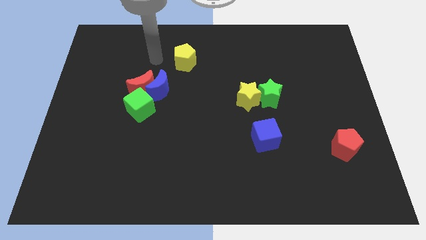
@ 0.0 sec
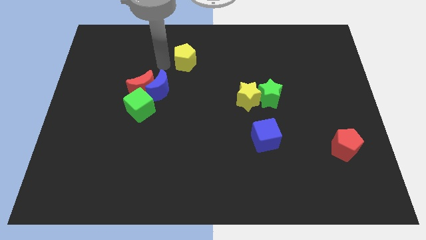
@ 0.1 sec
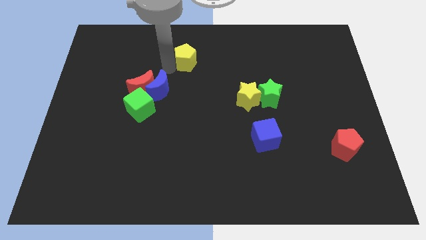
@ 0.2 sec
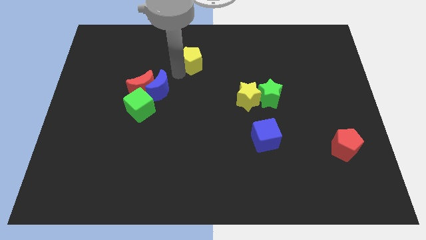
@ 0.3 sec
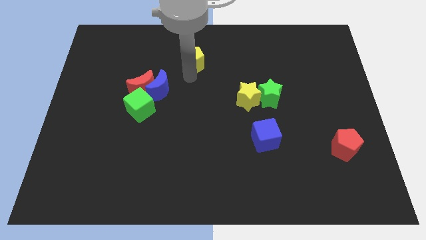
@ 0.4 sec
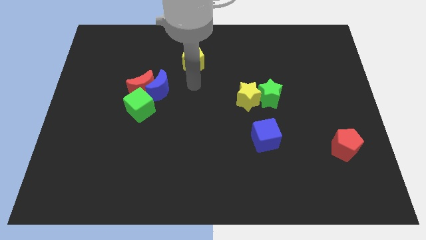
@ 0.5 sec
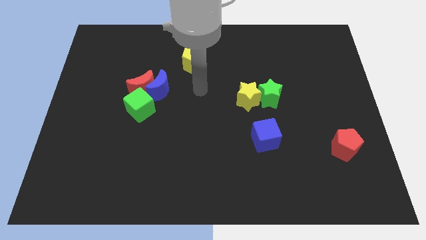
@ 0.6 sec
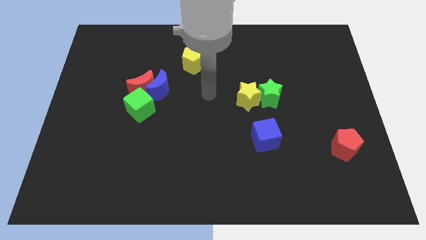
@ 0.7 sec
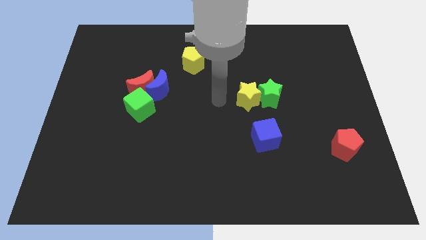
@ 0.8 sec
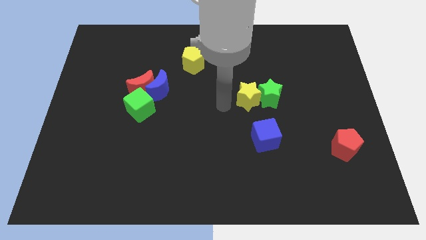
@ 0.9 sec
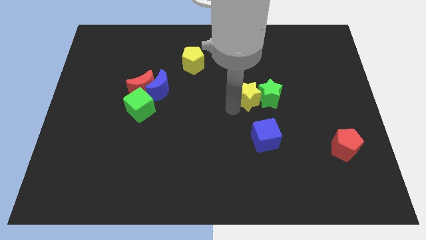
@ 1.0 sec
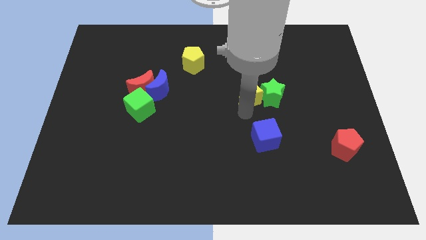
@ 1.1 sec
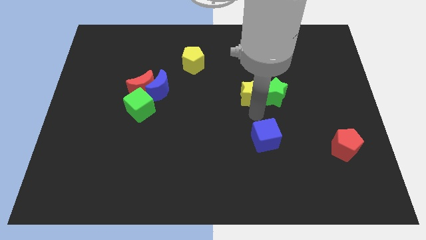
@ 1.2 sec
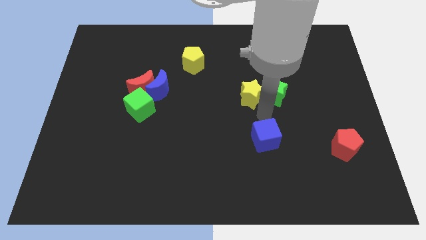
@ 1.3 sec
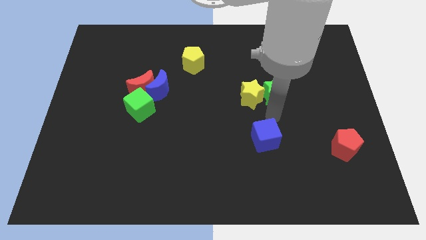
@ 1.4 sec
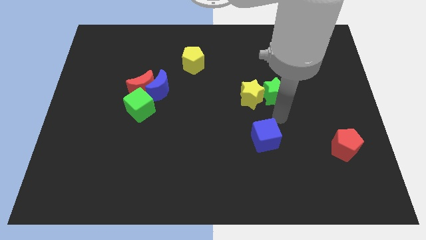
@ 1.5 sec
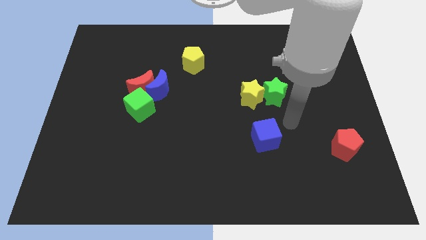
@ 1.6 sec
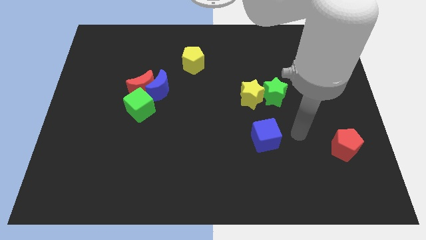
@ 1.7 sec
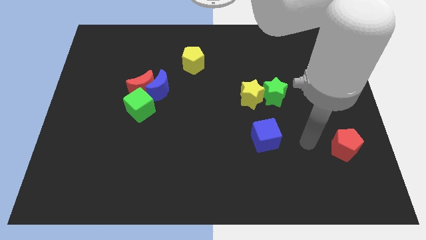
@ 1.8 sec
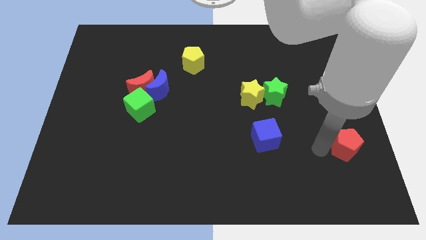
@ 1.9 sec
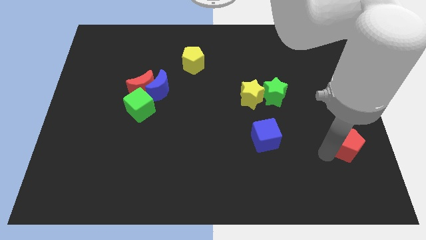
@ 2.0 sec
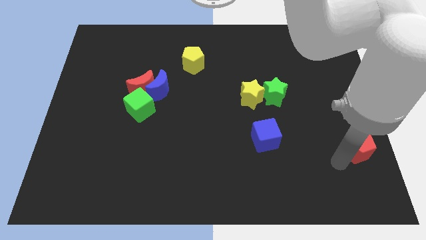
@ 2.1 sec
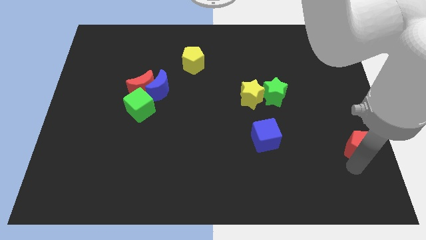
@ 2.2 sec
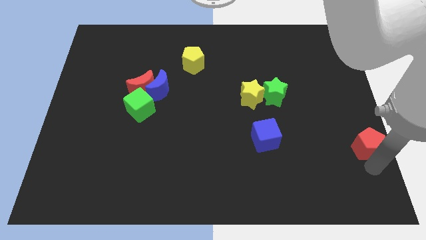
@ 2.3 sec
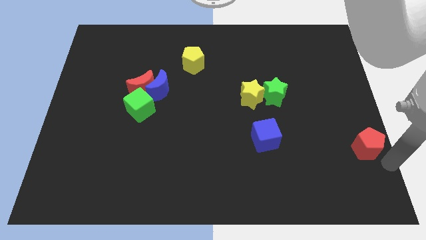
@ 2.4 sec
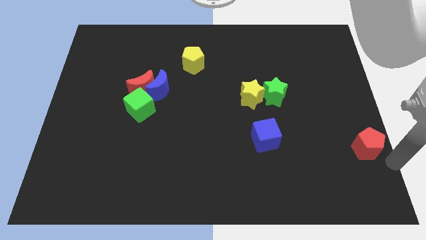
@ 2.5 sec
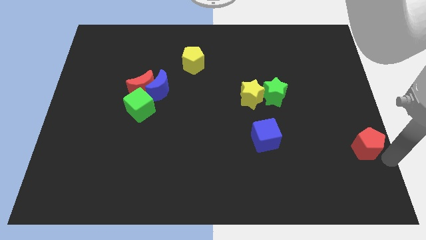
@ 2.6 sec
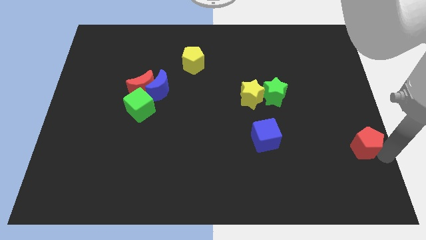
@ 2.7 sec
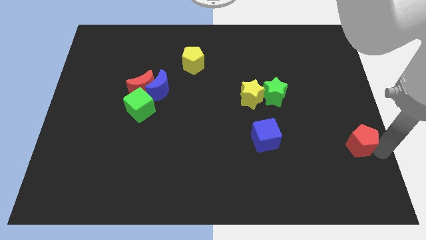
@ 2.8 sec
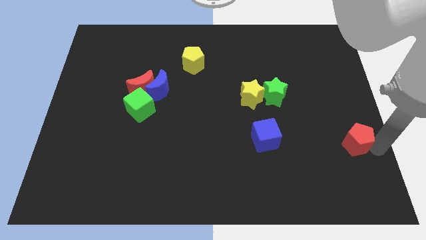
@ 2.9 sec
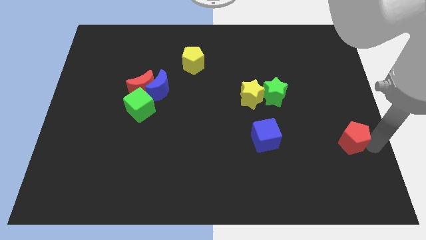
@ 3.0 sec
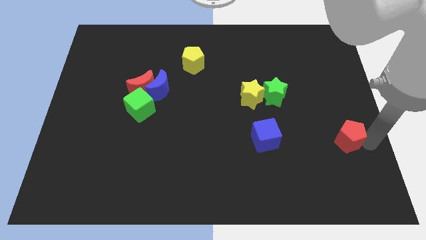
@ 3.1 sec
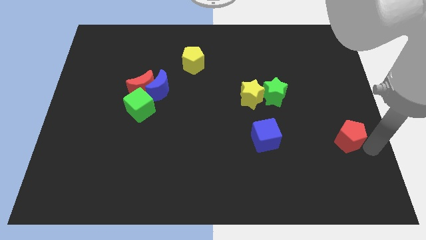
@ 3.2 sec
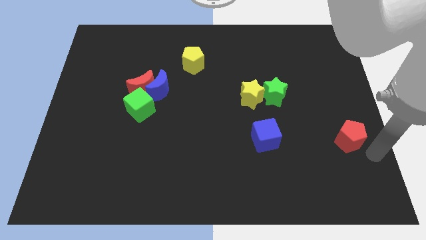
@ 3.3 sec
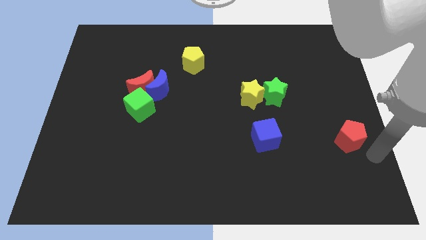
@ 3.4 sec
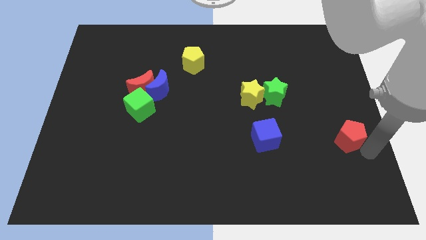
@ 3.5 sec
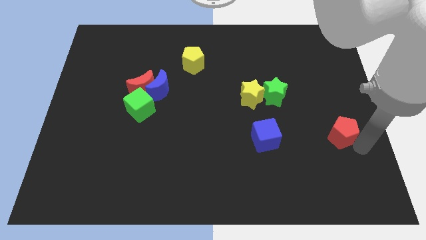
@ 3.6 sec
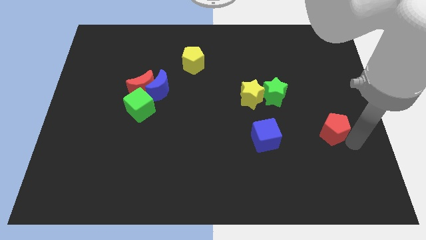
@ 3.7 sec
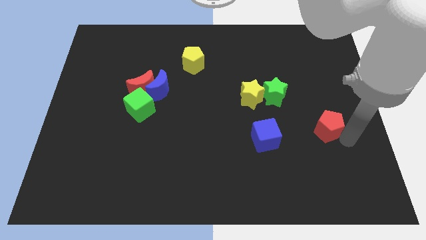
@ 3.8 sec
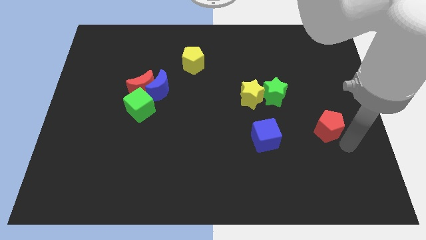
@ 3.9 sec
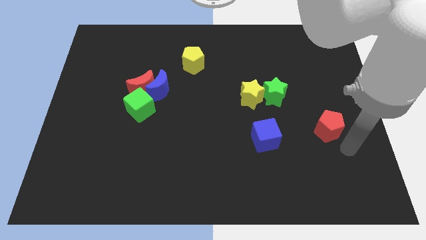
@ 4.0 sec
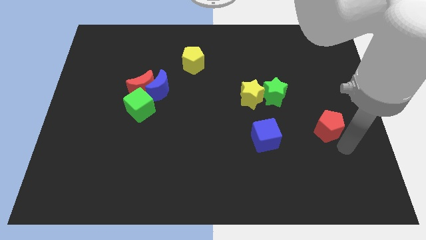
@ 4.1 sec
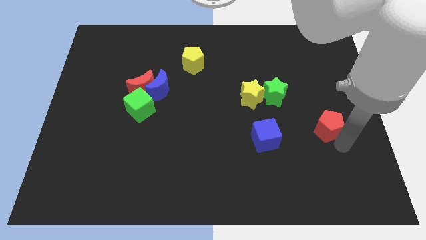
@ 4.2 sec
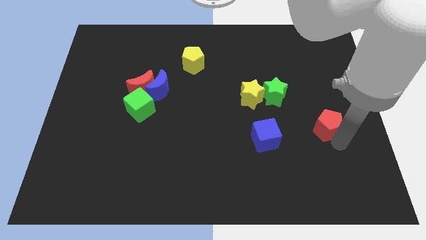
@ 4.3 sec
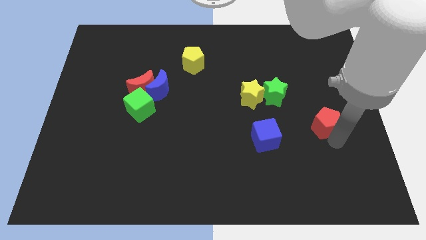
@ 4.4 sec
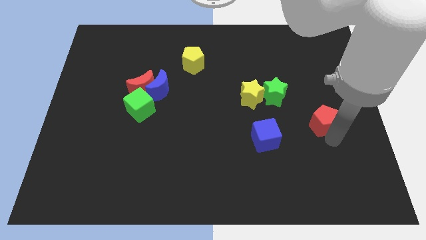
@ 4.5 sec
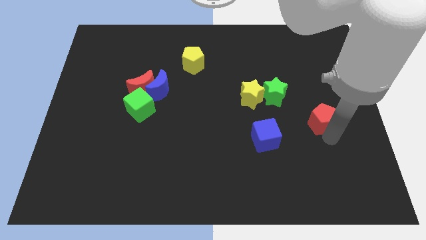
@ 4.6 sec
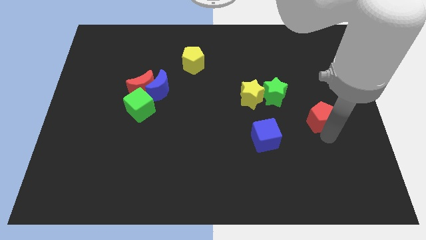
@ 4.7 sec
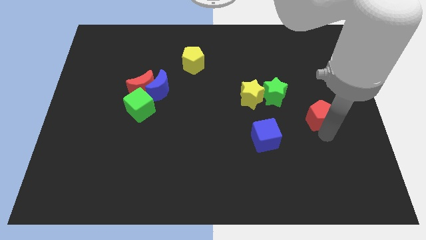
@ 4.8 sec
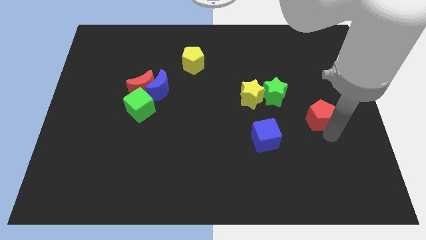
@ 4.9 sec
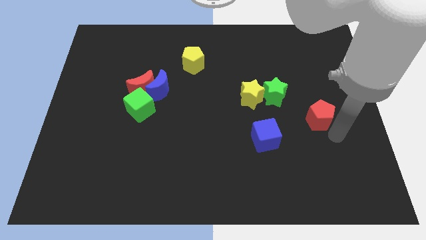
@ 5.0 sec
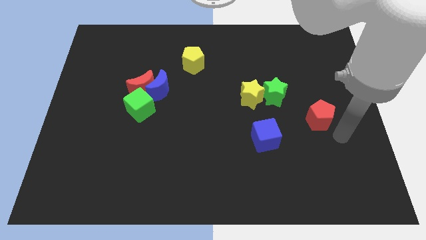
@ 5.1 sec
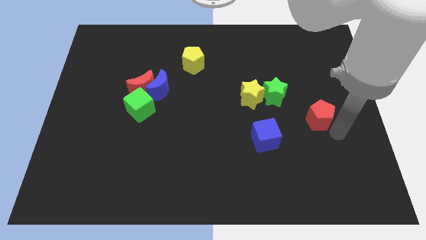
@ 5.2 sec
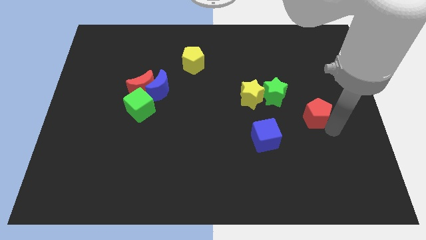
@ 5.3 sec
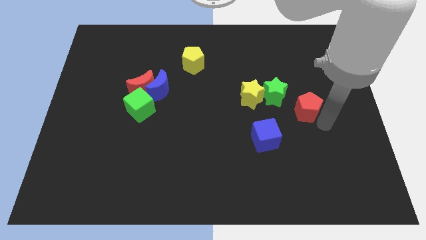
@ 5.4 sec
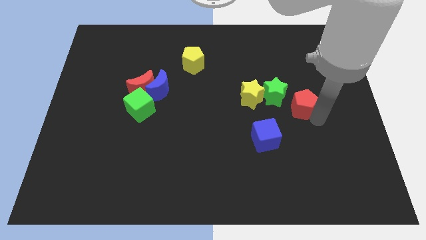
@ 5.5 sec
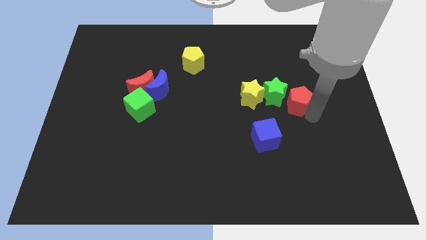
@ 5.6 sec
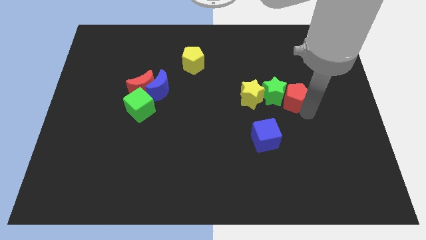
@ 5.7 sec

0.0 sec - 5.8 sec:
push the red pentagon to the top right side of the green star

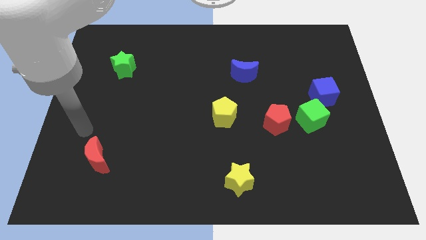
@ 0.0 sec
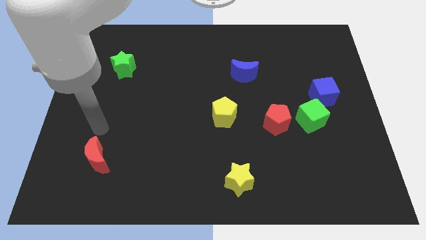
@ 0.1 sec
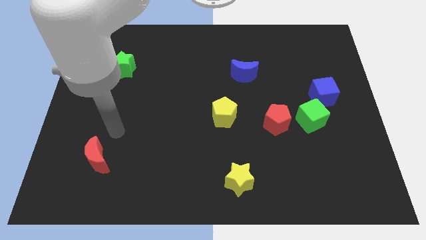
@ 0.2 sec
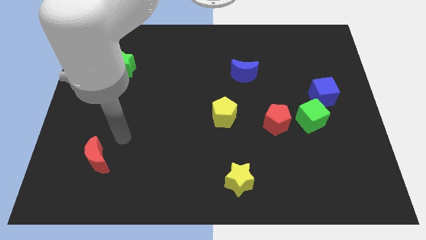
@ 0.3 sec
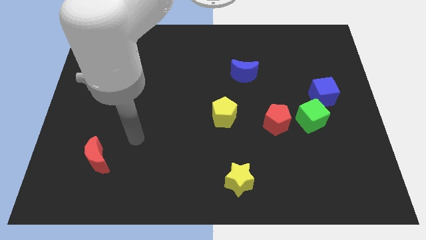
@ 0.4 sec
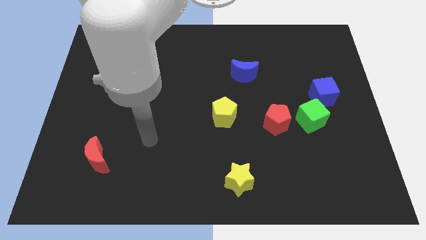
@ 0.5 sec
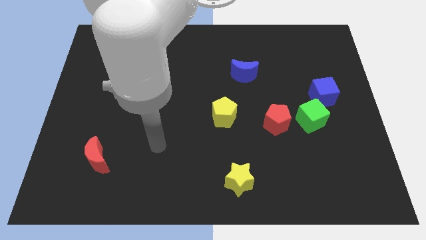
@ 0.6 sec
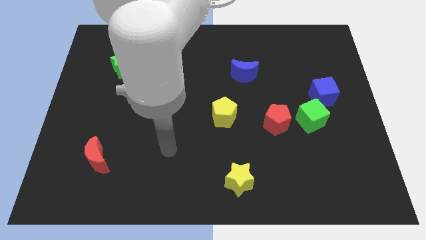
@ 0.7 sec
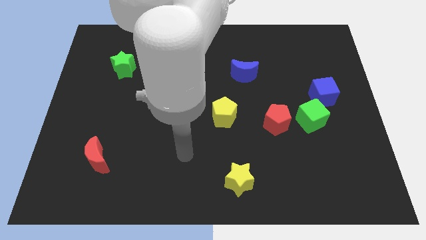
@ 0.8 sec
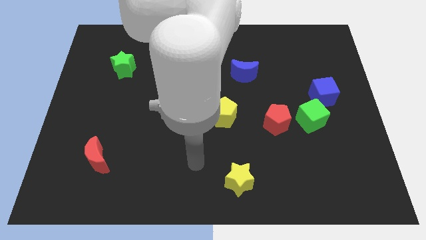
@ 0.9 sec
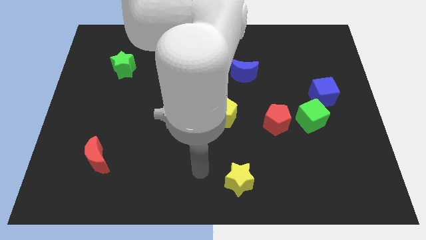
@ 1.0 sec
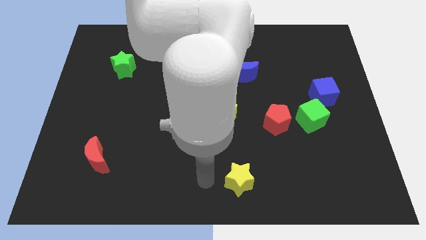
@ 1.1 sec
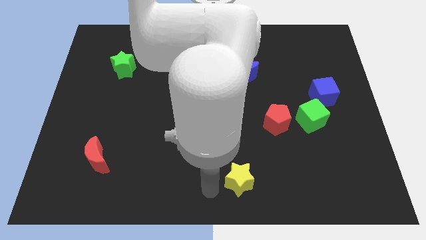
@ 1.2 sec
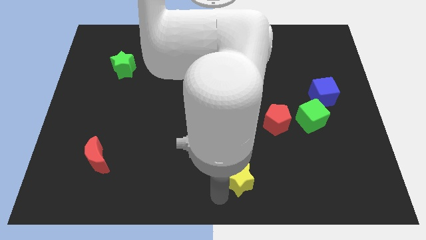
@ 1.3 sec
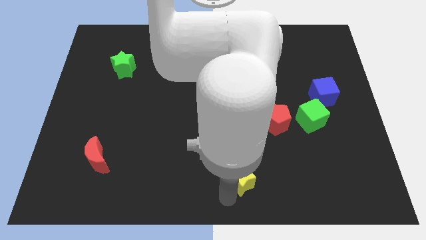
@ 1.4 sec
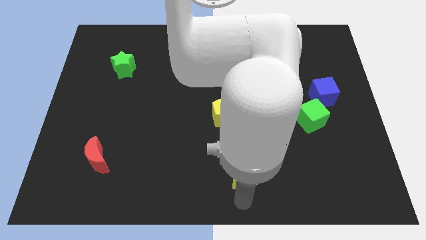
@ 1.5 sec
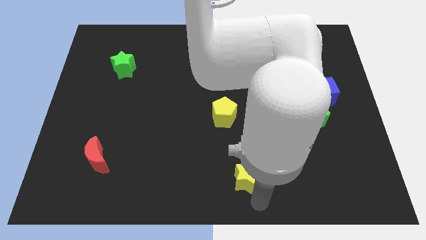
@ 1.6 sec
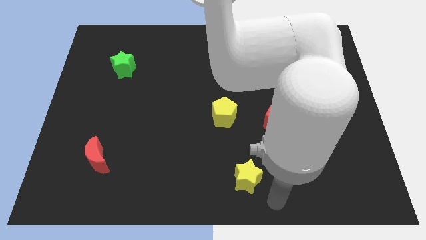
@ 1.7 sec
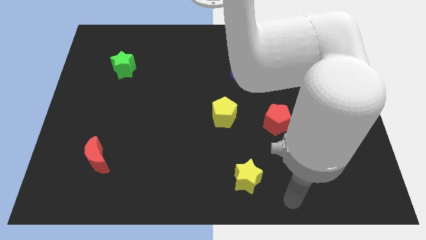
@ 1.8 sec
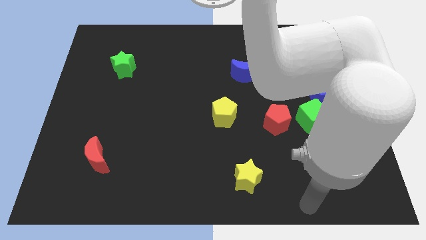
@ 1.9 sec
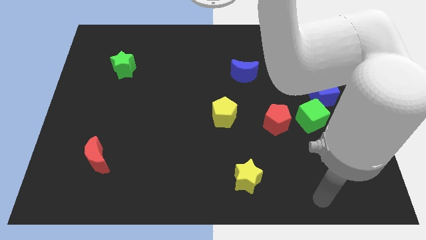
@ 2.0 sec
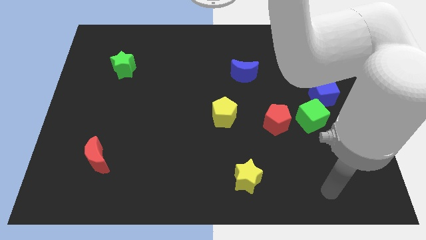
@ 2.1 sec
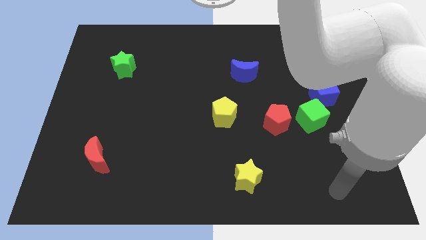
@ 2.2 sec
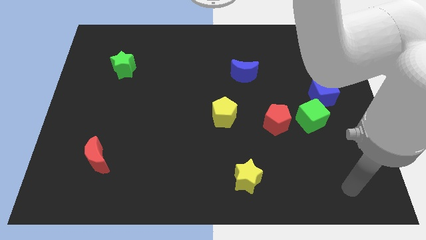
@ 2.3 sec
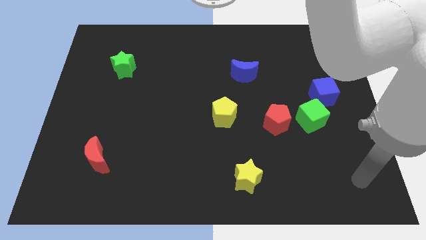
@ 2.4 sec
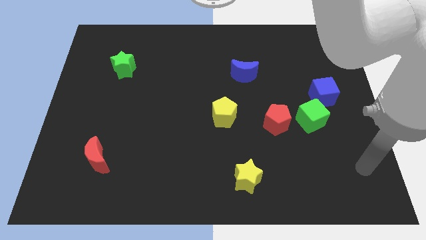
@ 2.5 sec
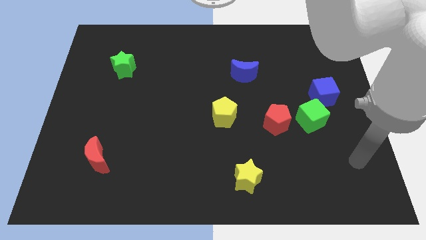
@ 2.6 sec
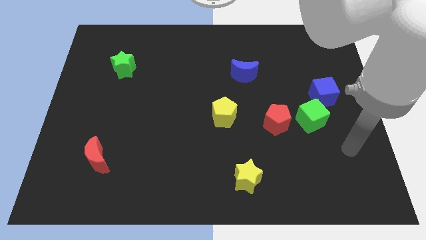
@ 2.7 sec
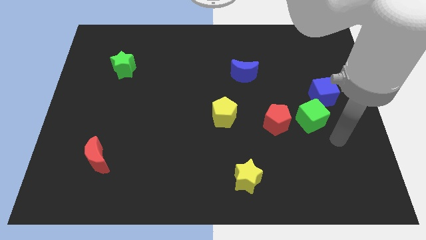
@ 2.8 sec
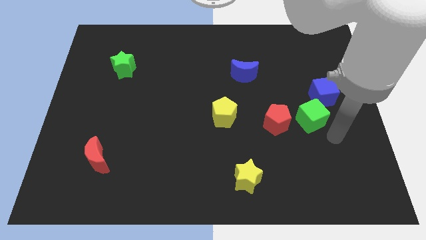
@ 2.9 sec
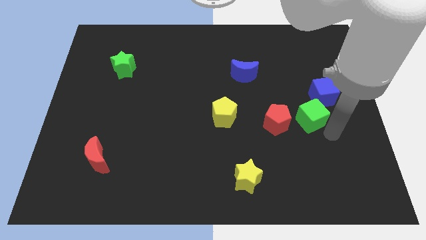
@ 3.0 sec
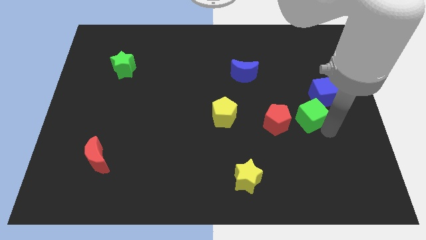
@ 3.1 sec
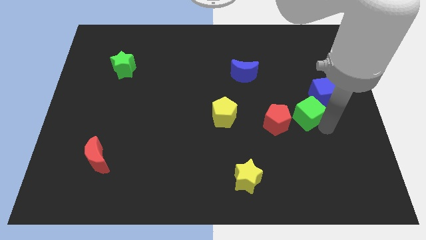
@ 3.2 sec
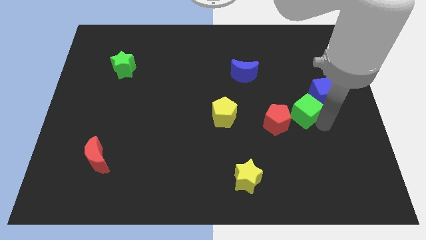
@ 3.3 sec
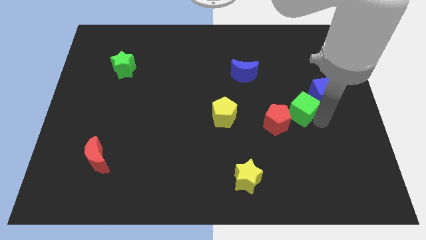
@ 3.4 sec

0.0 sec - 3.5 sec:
move the green cube left of the blue cube
